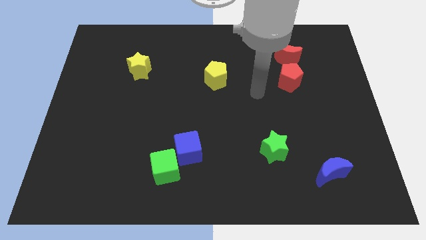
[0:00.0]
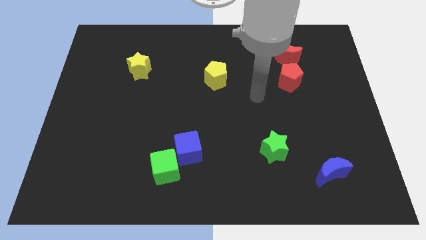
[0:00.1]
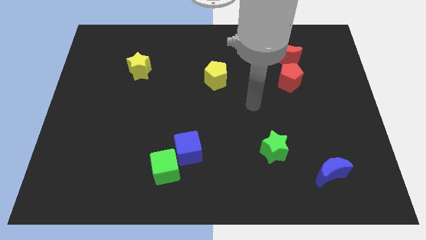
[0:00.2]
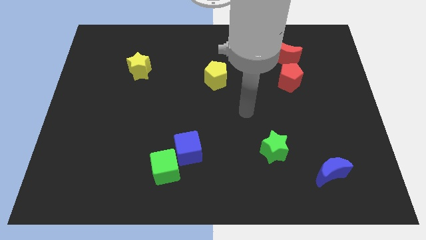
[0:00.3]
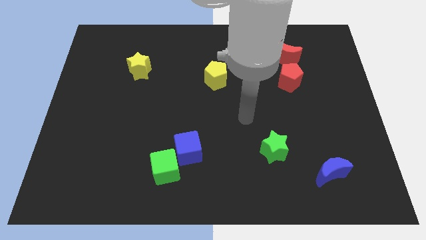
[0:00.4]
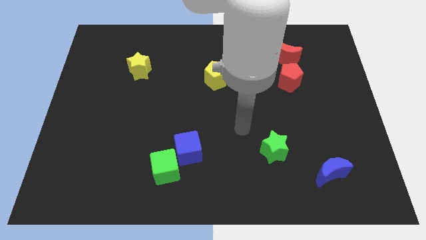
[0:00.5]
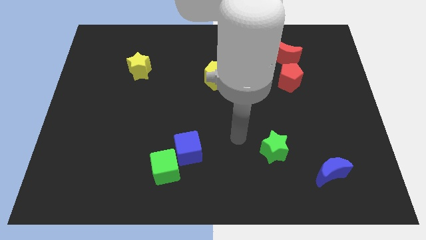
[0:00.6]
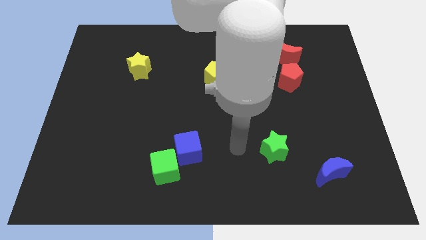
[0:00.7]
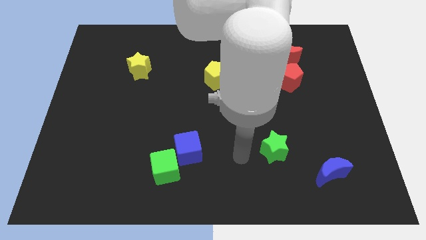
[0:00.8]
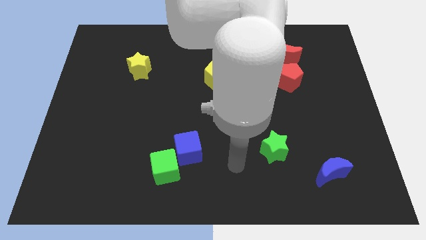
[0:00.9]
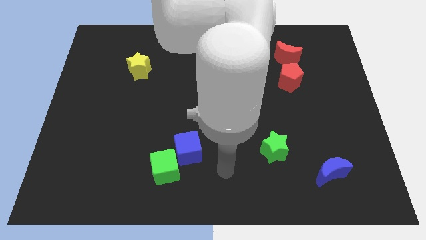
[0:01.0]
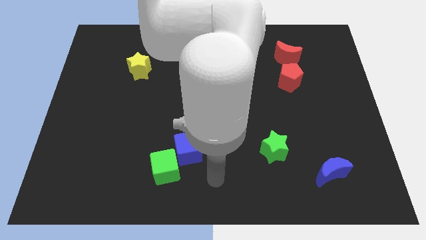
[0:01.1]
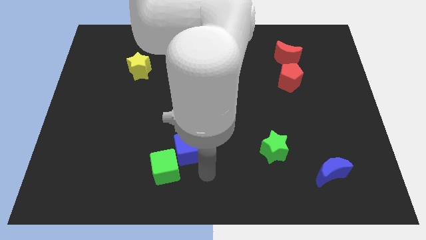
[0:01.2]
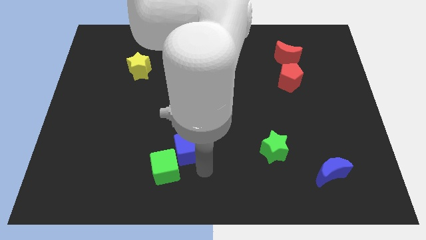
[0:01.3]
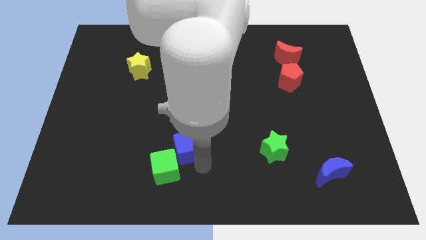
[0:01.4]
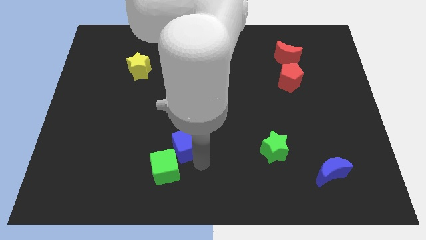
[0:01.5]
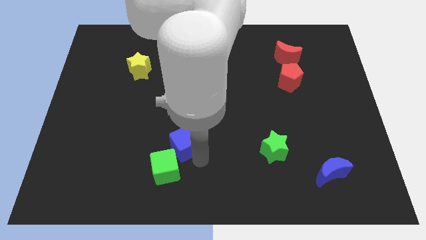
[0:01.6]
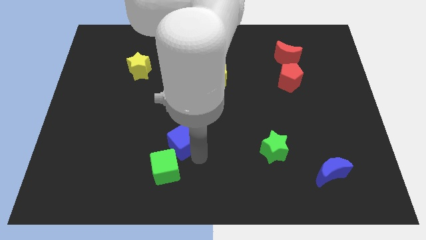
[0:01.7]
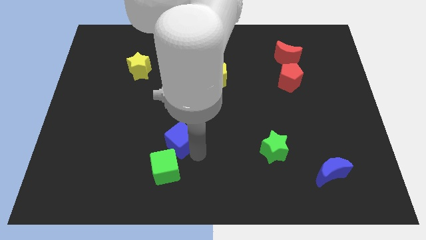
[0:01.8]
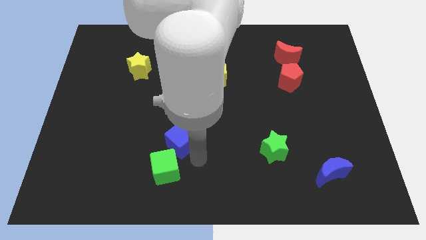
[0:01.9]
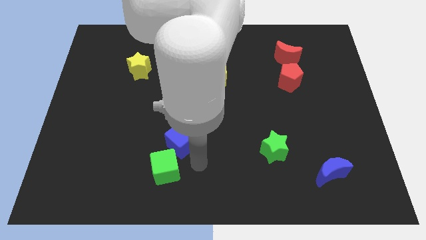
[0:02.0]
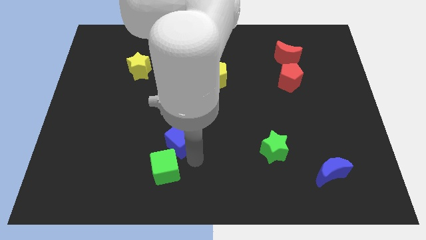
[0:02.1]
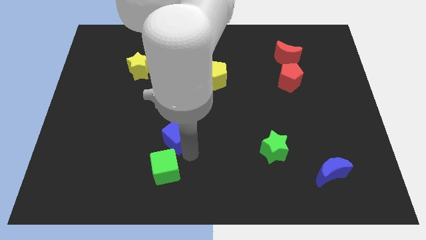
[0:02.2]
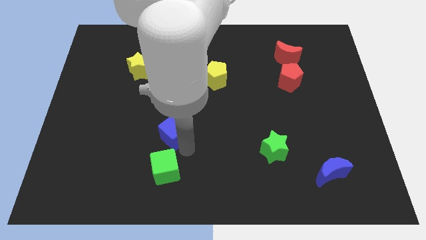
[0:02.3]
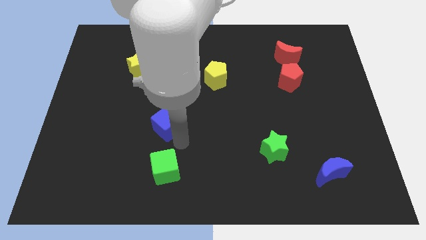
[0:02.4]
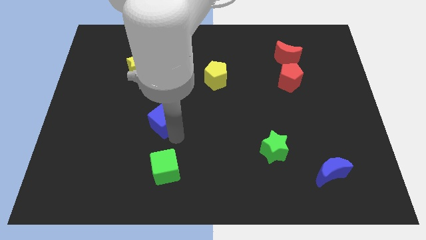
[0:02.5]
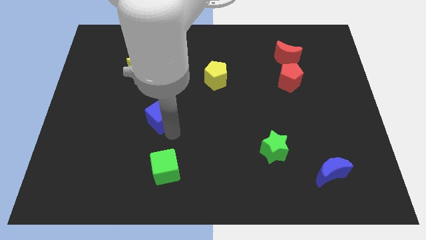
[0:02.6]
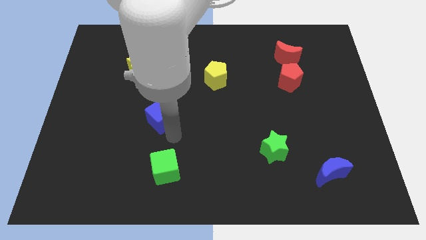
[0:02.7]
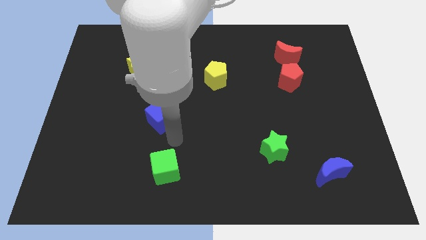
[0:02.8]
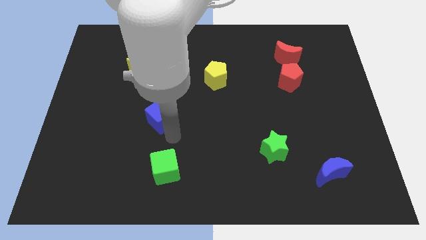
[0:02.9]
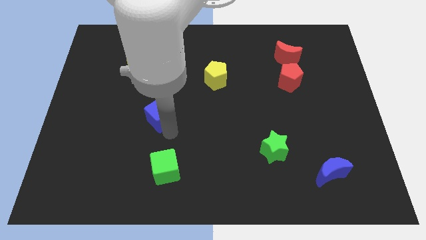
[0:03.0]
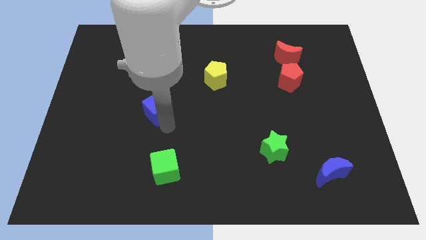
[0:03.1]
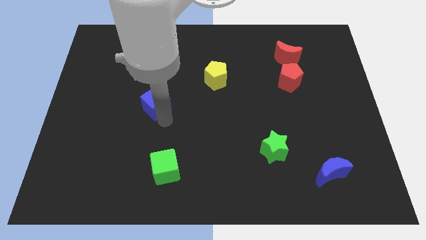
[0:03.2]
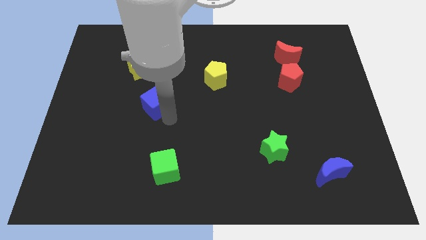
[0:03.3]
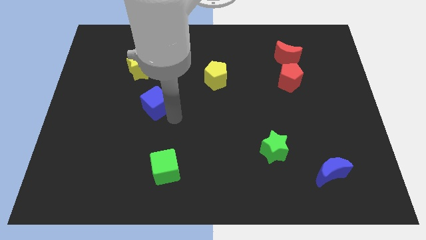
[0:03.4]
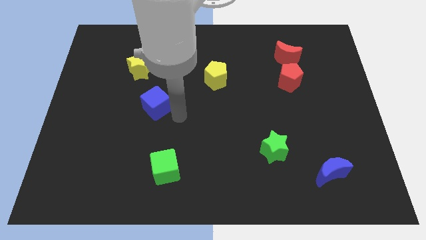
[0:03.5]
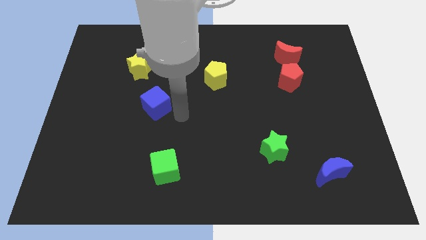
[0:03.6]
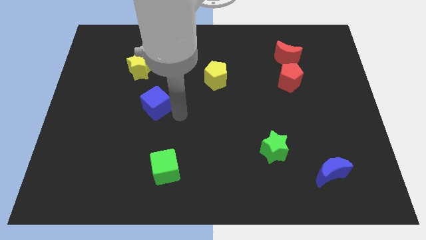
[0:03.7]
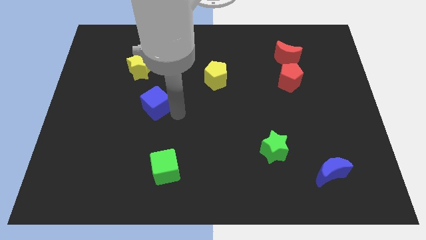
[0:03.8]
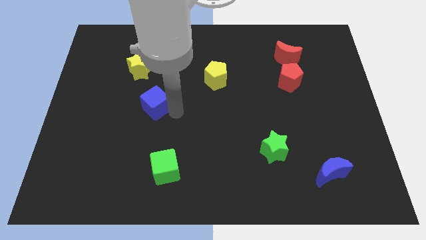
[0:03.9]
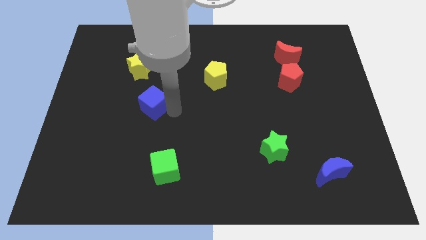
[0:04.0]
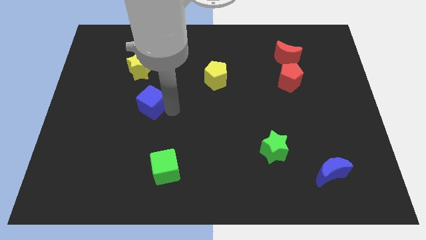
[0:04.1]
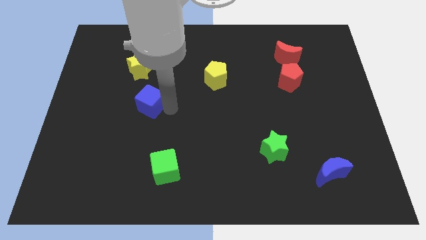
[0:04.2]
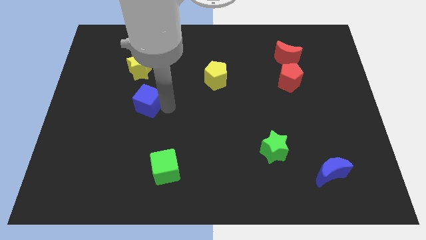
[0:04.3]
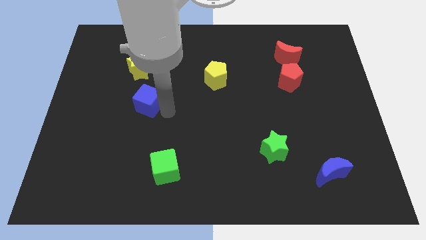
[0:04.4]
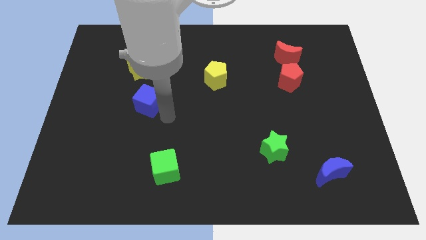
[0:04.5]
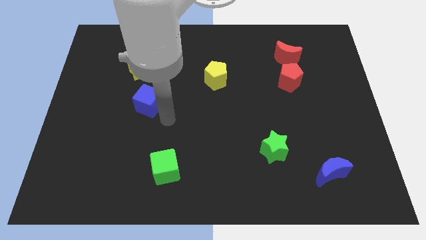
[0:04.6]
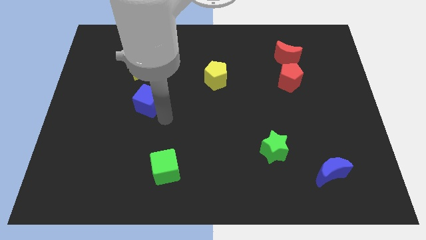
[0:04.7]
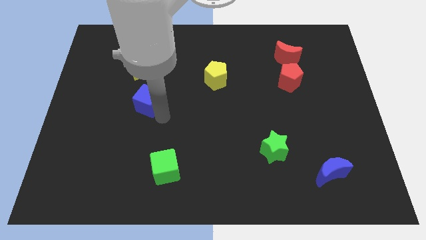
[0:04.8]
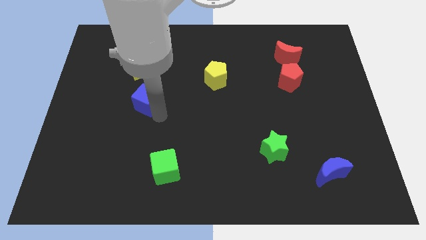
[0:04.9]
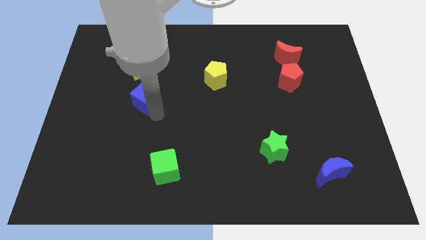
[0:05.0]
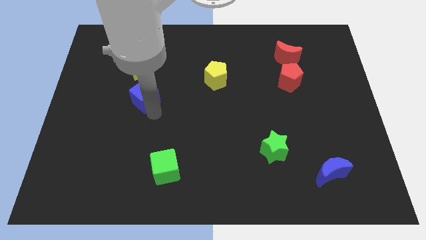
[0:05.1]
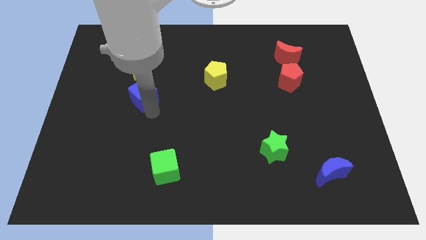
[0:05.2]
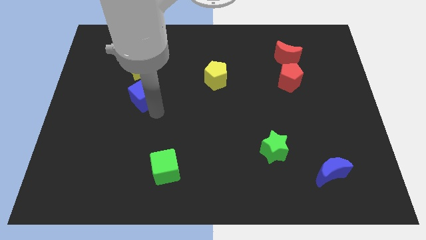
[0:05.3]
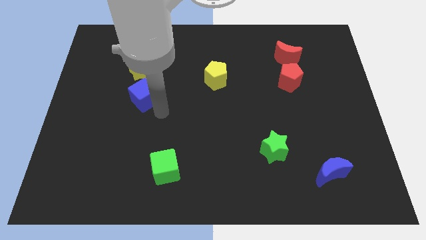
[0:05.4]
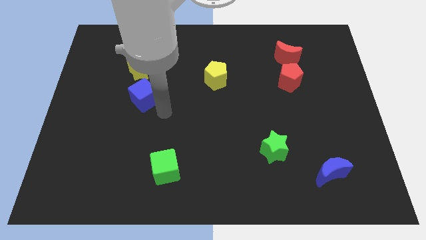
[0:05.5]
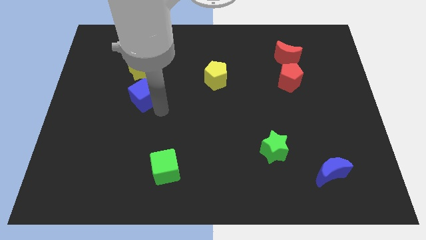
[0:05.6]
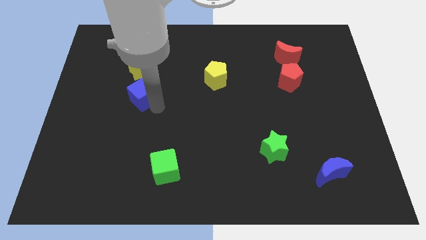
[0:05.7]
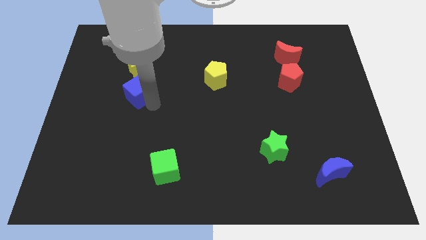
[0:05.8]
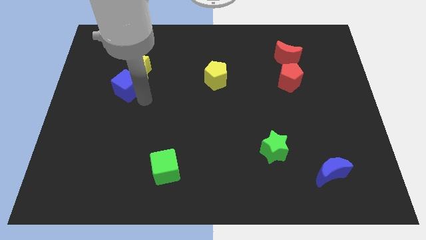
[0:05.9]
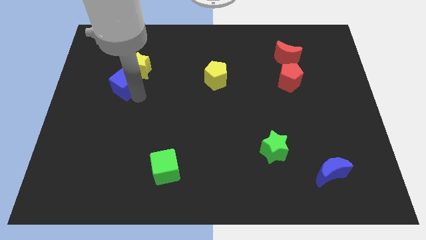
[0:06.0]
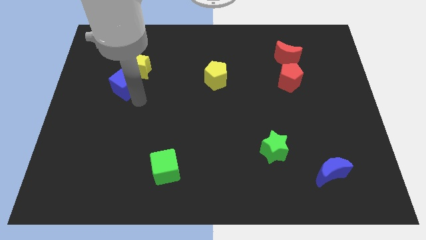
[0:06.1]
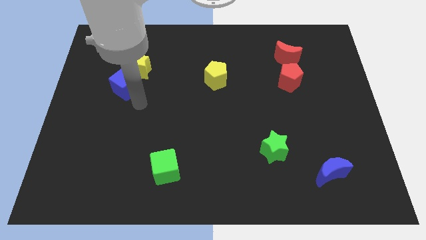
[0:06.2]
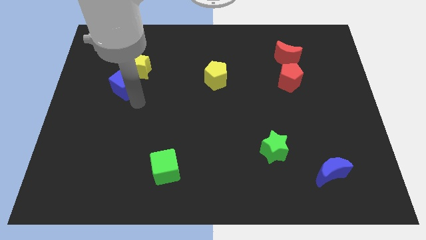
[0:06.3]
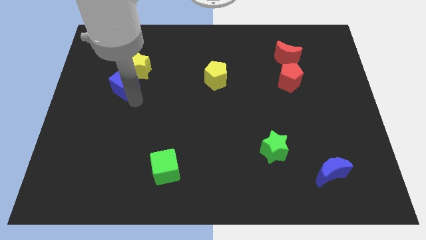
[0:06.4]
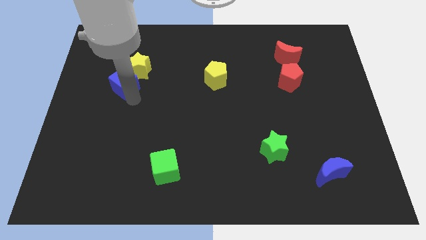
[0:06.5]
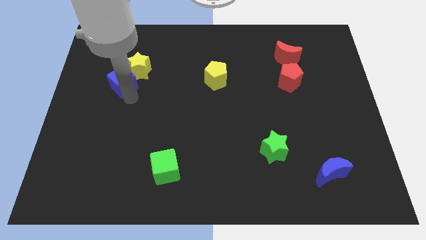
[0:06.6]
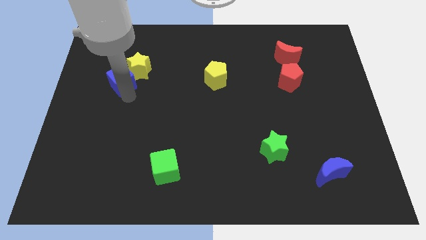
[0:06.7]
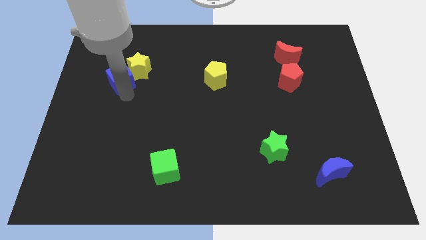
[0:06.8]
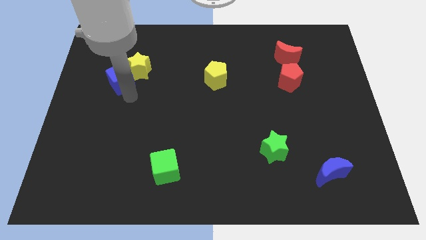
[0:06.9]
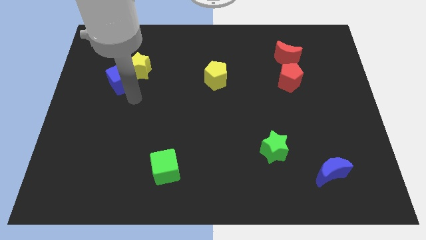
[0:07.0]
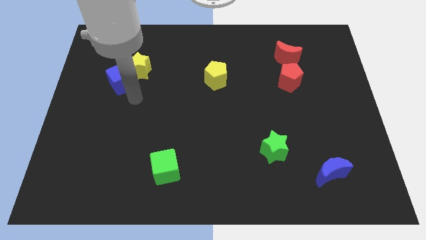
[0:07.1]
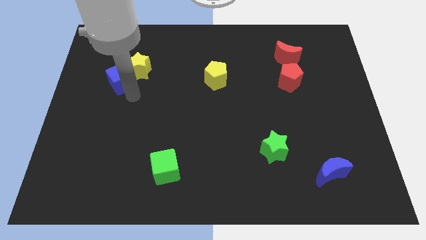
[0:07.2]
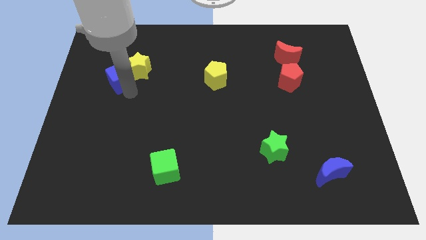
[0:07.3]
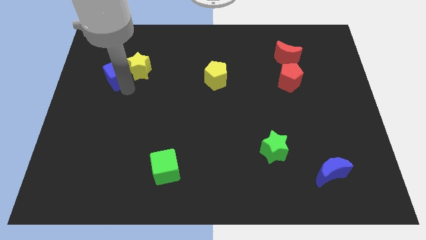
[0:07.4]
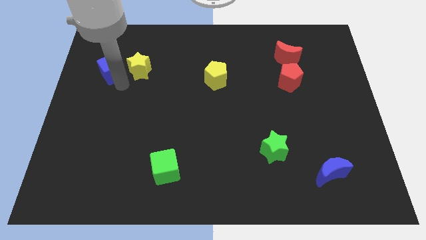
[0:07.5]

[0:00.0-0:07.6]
move the blue cube to the top left of the yellow star
